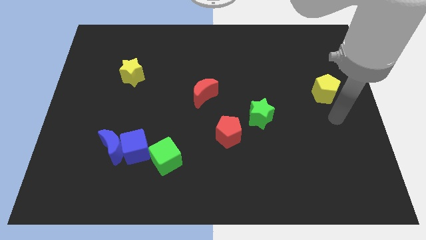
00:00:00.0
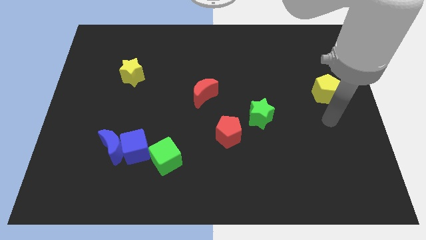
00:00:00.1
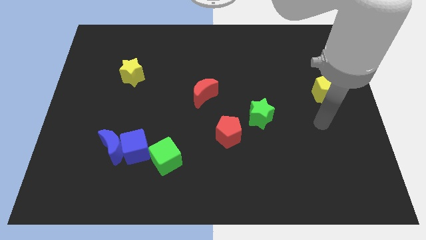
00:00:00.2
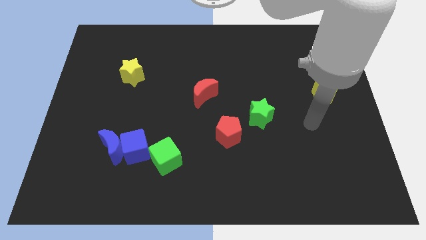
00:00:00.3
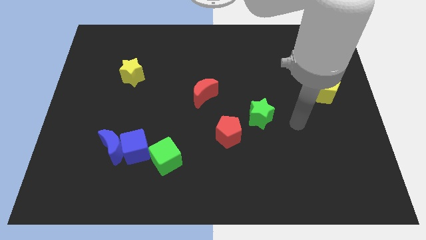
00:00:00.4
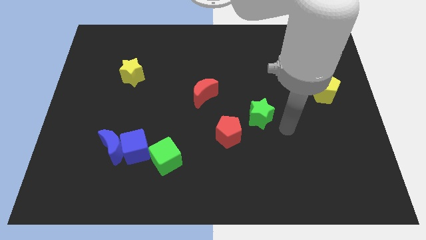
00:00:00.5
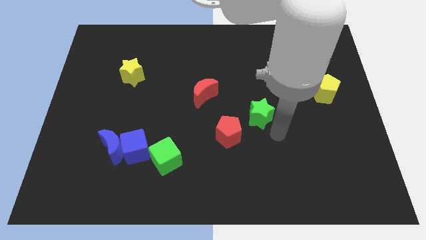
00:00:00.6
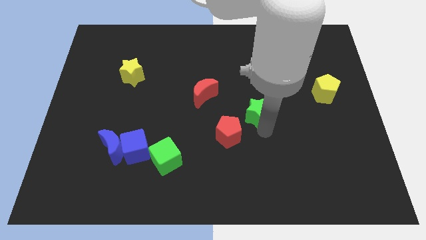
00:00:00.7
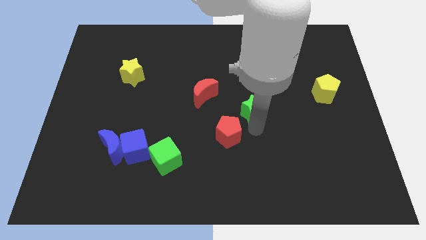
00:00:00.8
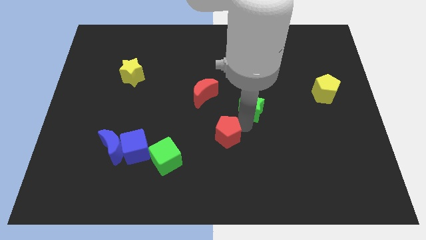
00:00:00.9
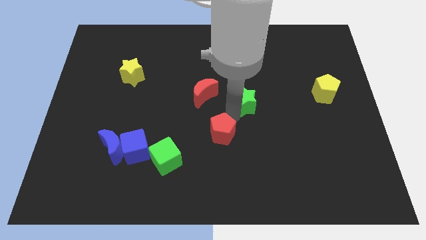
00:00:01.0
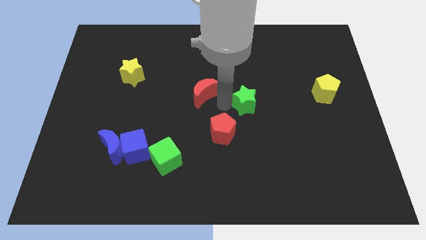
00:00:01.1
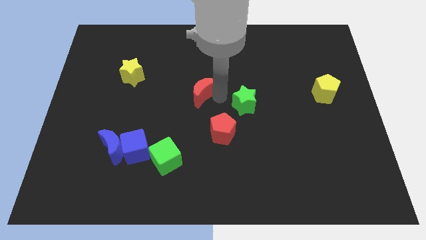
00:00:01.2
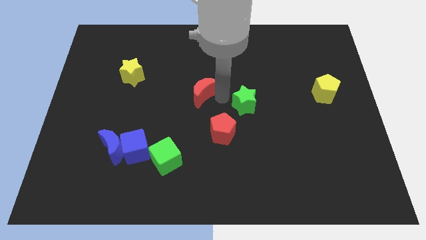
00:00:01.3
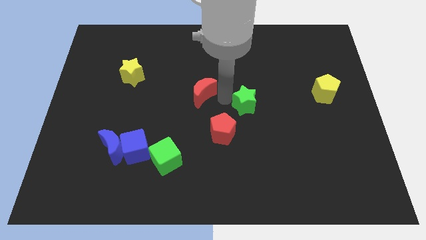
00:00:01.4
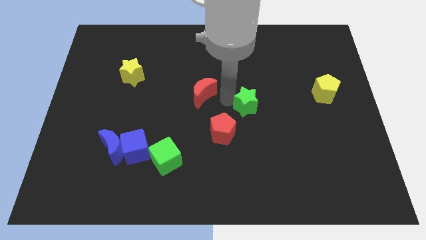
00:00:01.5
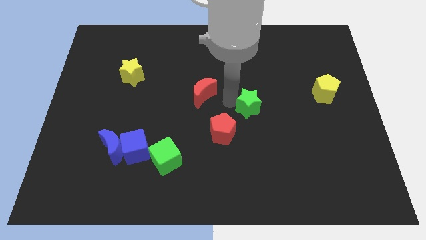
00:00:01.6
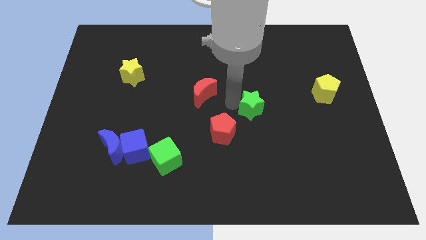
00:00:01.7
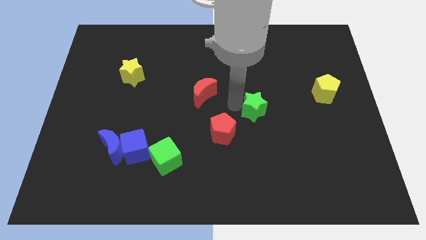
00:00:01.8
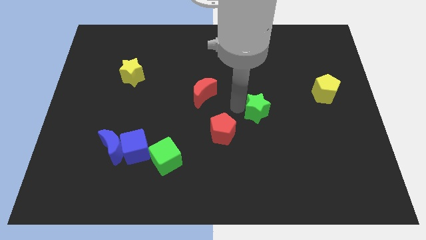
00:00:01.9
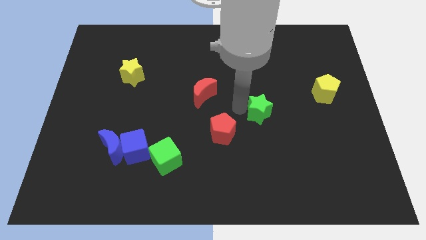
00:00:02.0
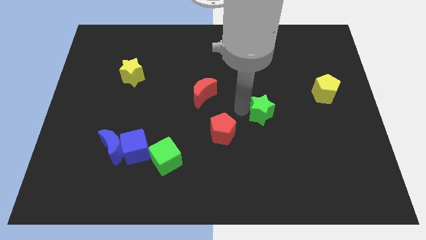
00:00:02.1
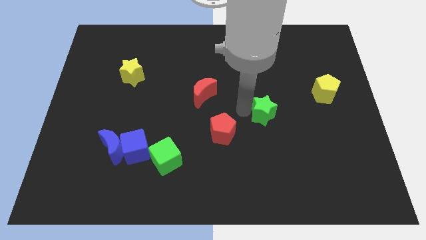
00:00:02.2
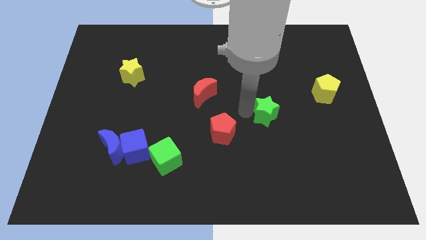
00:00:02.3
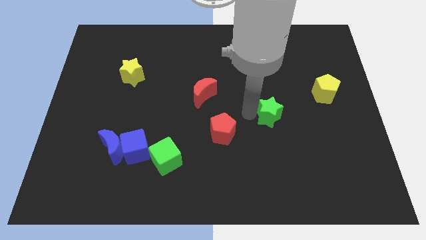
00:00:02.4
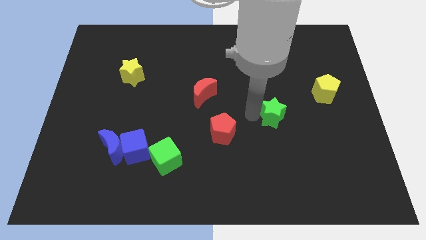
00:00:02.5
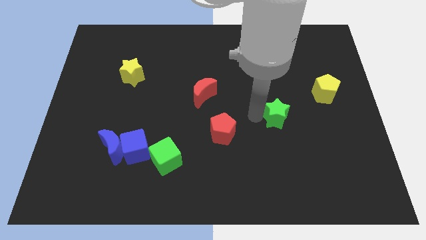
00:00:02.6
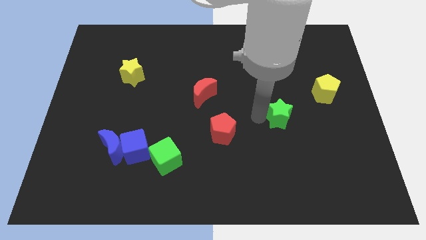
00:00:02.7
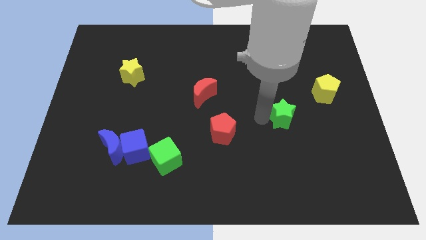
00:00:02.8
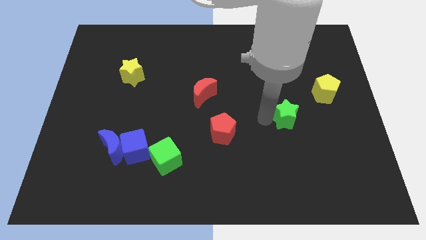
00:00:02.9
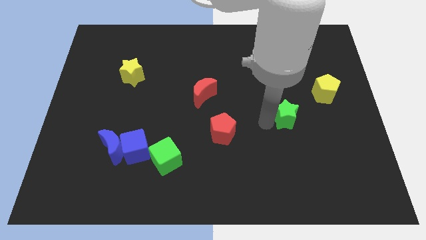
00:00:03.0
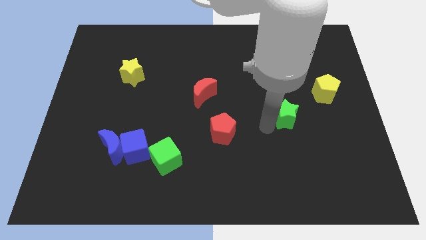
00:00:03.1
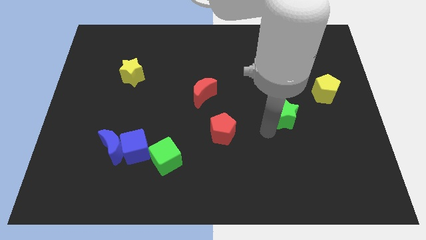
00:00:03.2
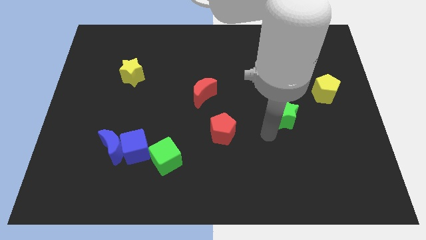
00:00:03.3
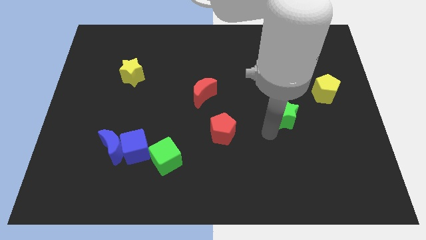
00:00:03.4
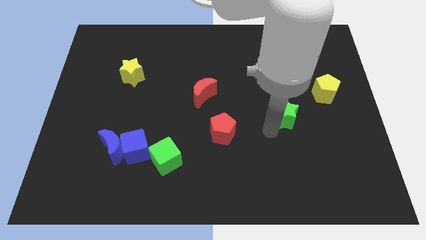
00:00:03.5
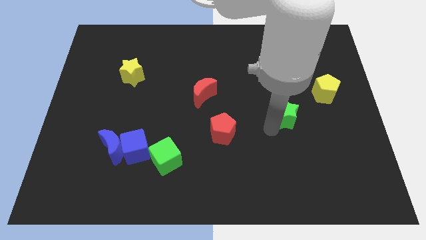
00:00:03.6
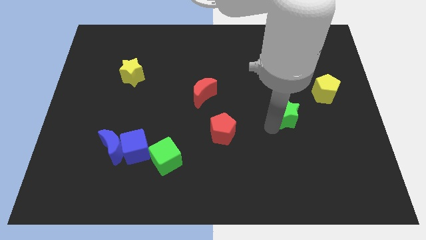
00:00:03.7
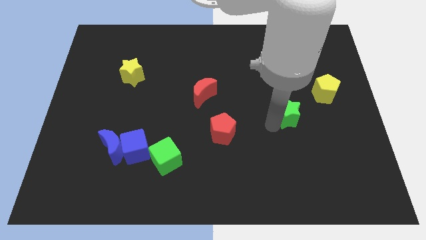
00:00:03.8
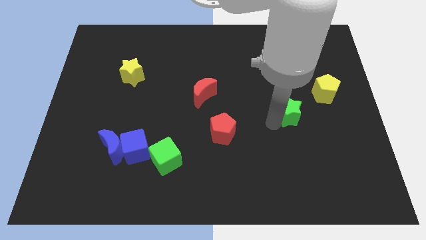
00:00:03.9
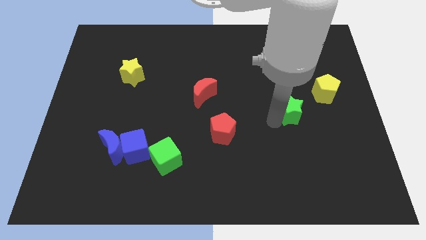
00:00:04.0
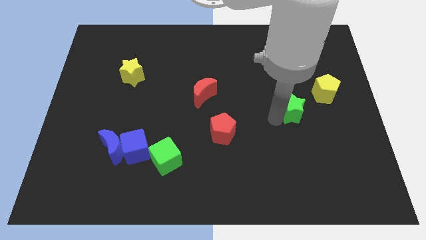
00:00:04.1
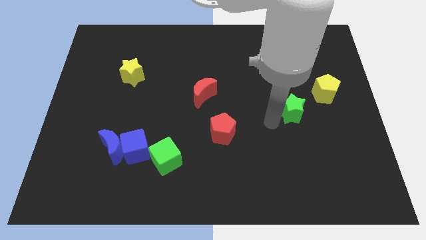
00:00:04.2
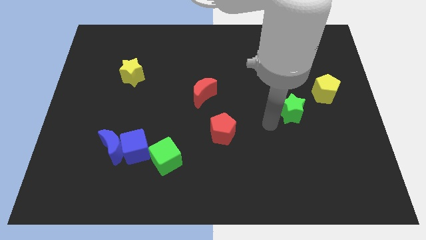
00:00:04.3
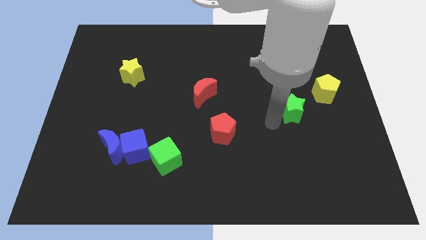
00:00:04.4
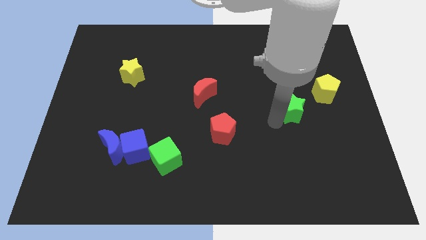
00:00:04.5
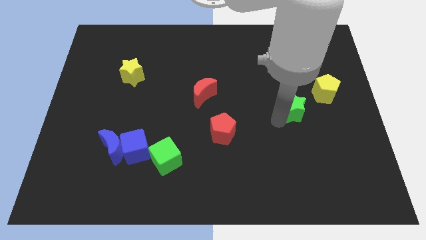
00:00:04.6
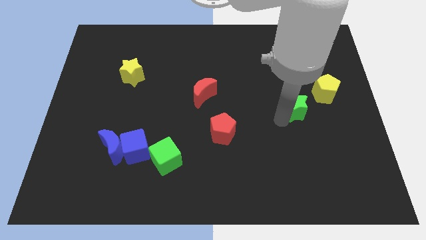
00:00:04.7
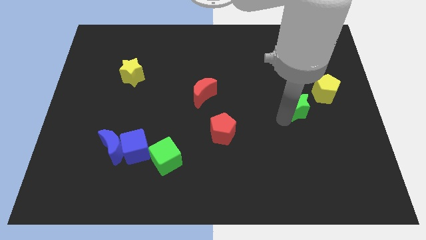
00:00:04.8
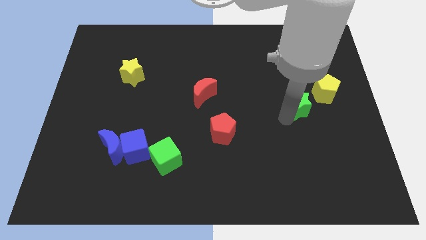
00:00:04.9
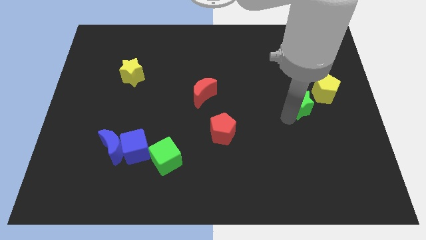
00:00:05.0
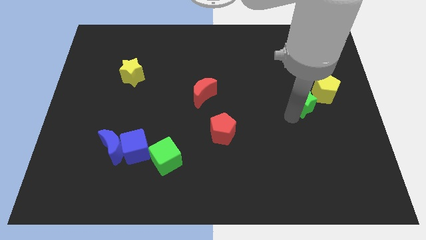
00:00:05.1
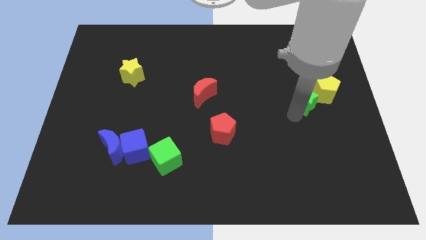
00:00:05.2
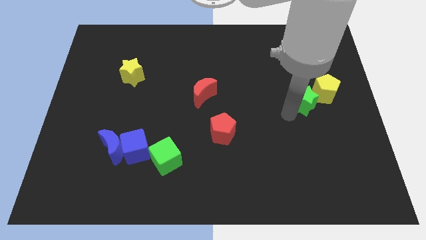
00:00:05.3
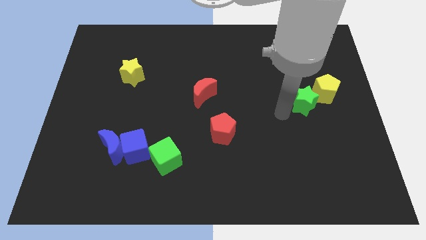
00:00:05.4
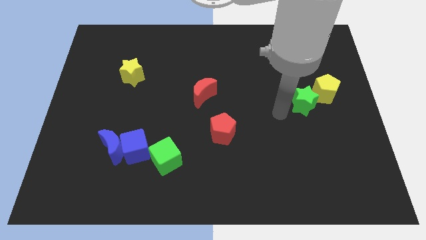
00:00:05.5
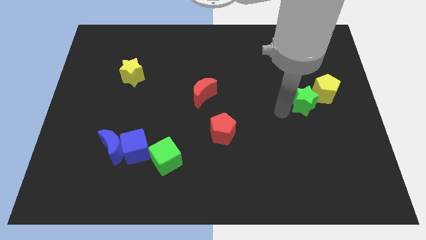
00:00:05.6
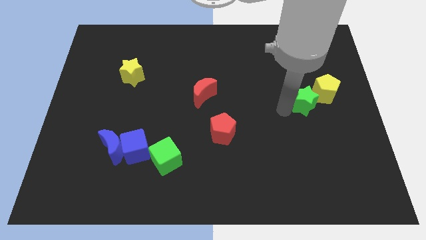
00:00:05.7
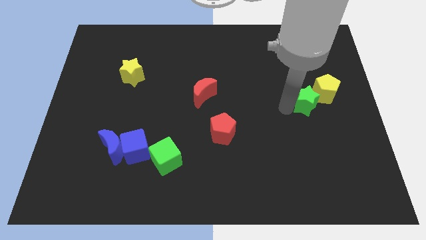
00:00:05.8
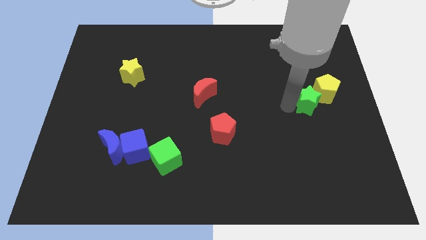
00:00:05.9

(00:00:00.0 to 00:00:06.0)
put the green star next to the yellow pentagon

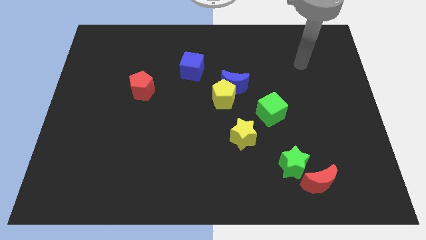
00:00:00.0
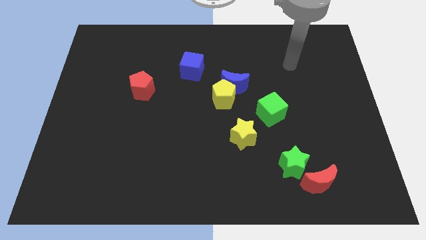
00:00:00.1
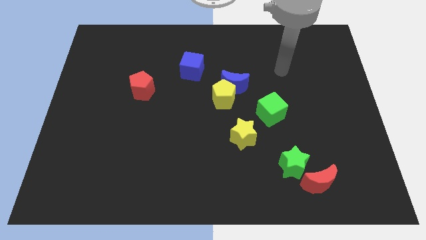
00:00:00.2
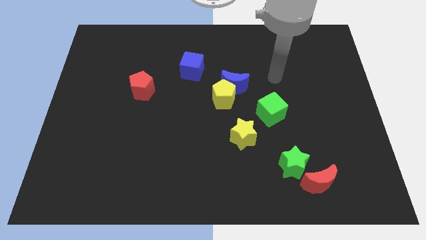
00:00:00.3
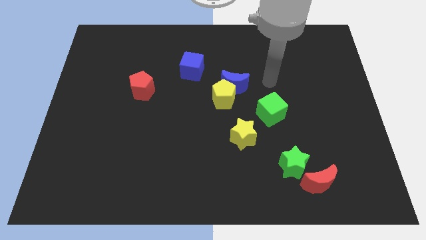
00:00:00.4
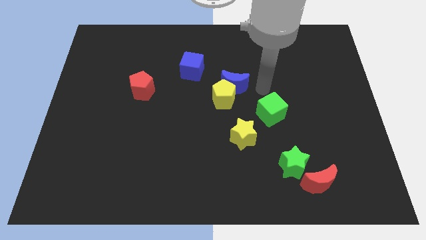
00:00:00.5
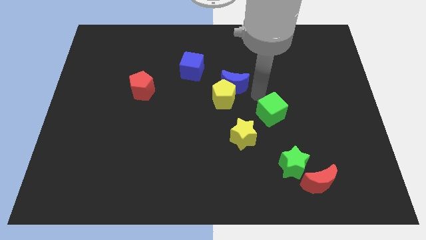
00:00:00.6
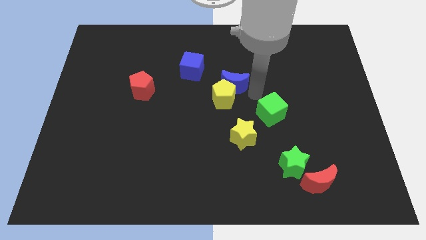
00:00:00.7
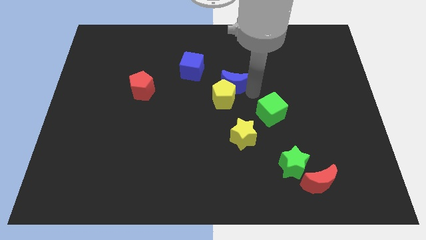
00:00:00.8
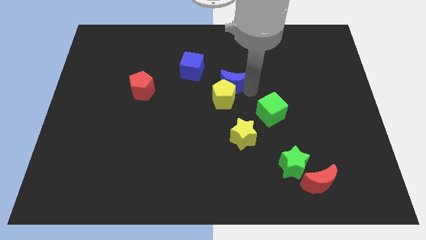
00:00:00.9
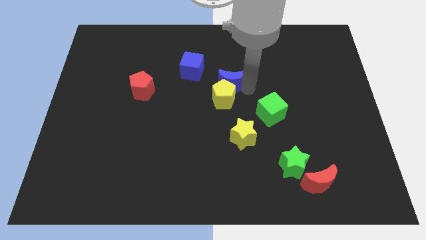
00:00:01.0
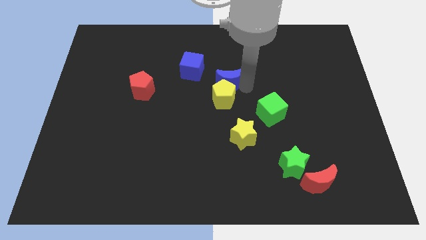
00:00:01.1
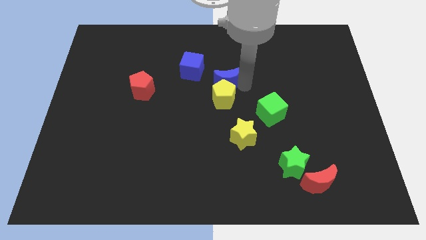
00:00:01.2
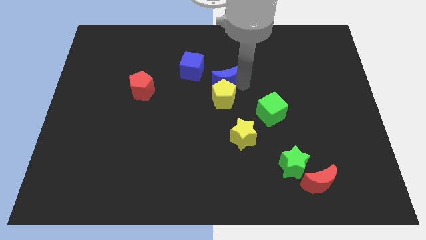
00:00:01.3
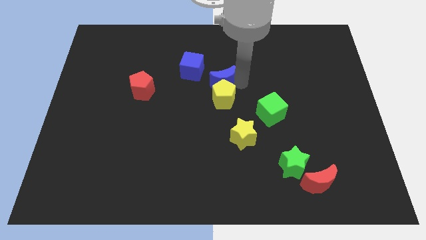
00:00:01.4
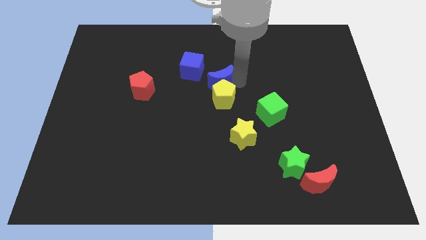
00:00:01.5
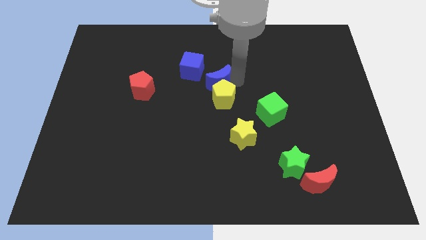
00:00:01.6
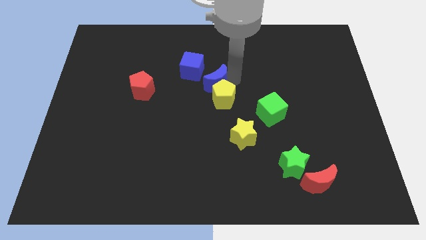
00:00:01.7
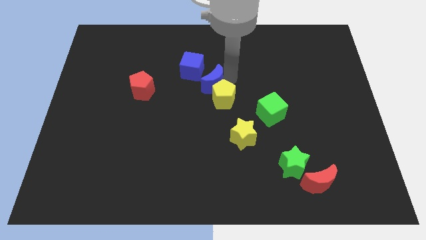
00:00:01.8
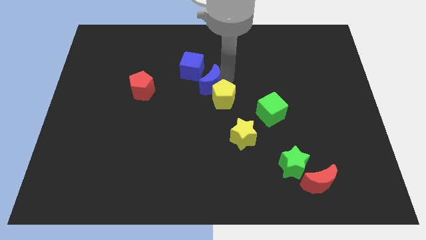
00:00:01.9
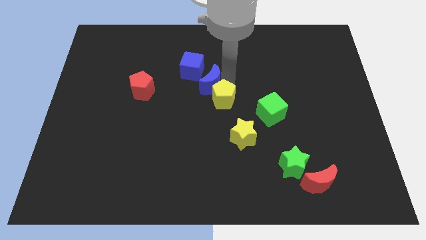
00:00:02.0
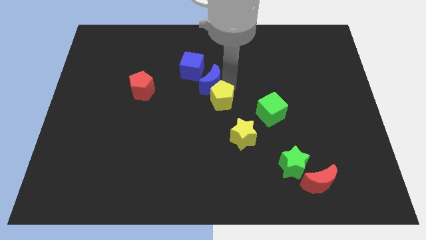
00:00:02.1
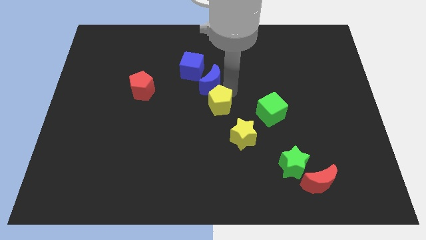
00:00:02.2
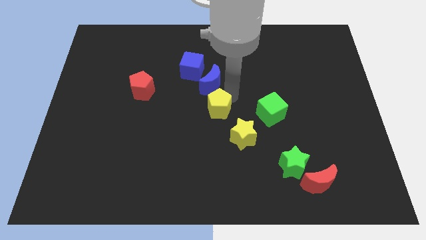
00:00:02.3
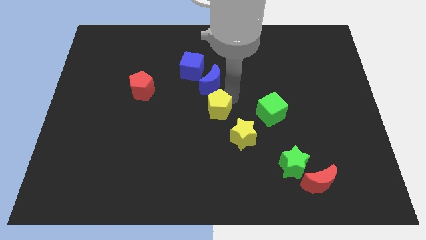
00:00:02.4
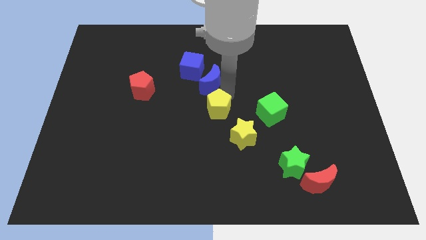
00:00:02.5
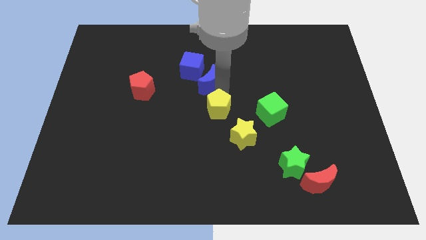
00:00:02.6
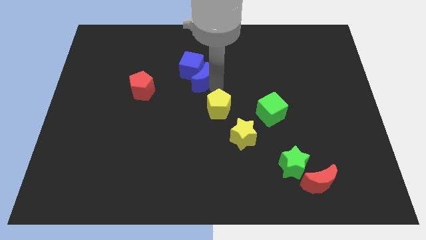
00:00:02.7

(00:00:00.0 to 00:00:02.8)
slide the blue moon to the blue cube
